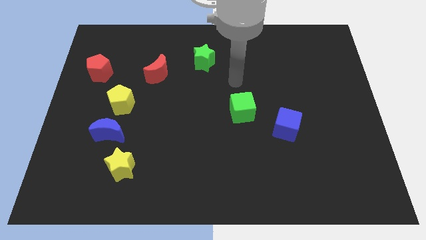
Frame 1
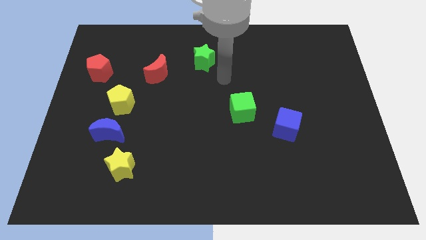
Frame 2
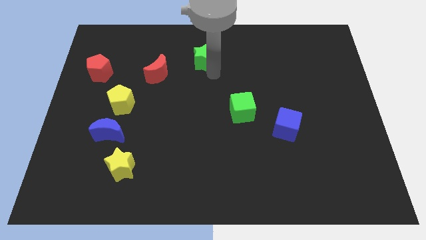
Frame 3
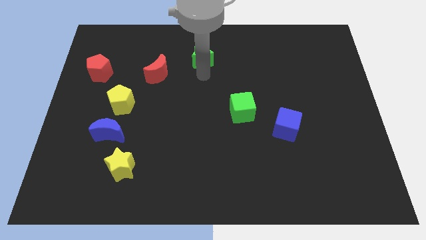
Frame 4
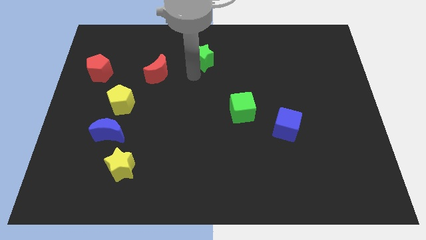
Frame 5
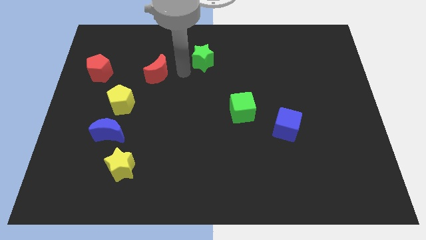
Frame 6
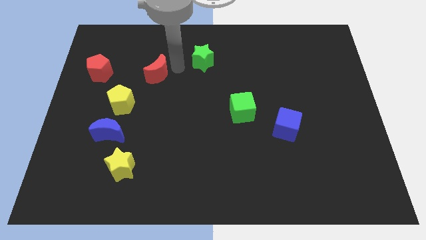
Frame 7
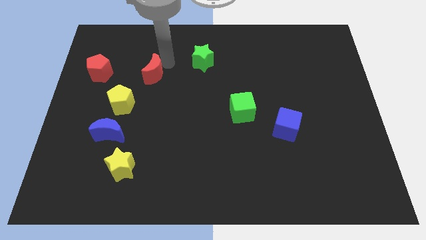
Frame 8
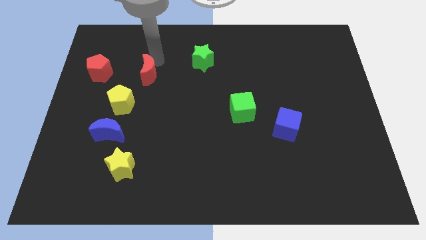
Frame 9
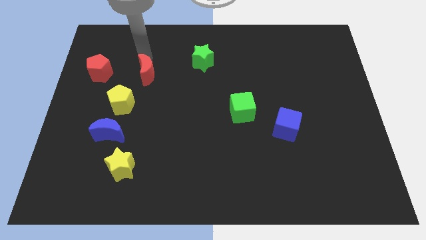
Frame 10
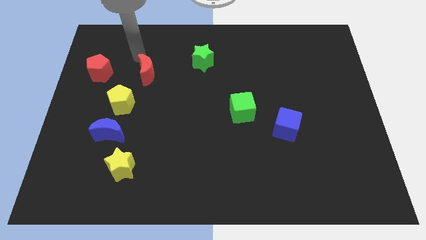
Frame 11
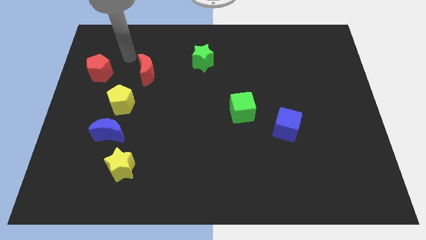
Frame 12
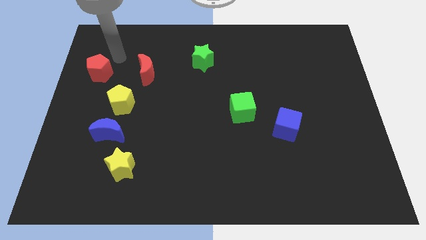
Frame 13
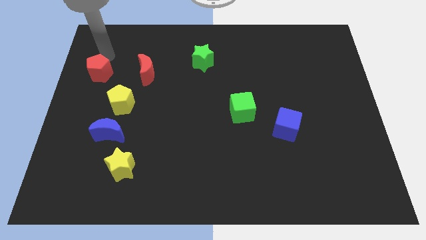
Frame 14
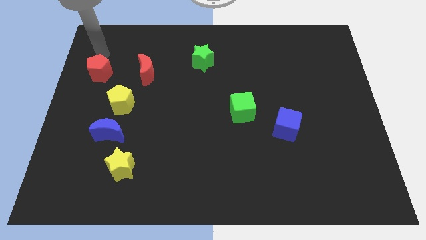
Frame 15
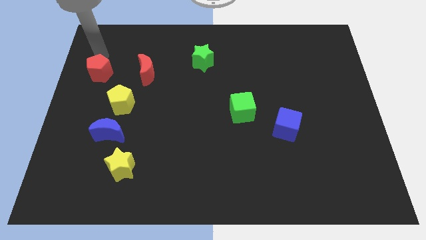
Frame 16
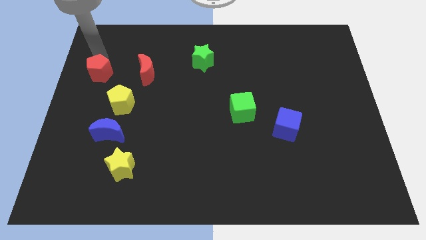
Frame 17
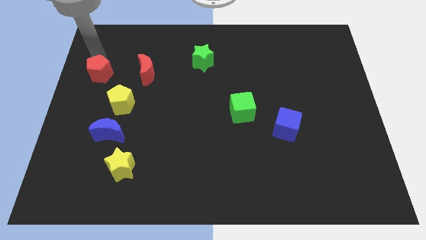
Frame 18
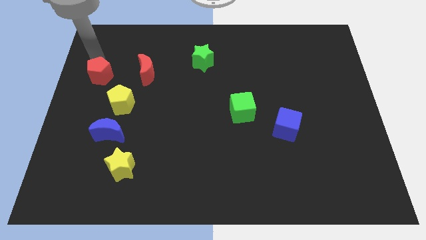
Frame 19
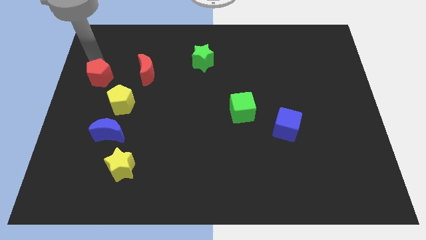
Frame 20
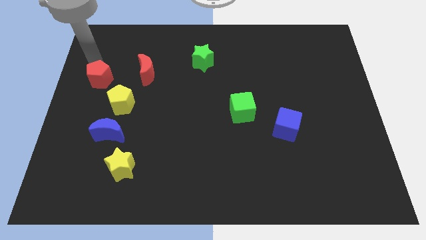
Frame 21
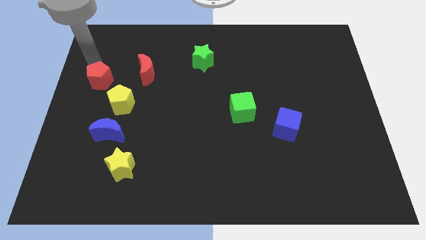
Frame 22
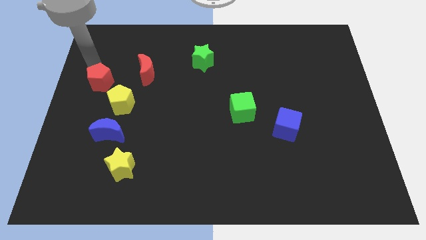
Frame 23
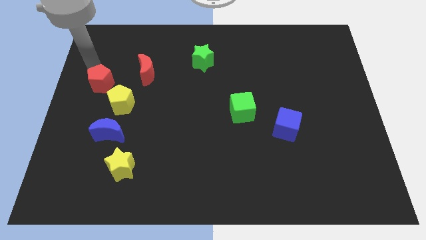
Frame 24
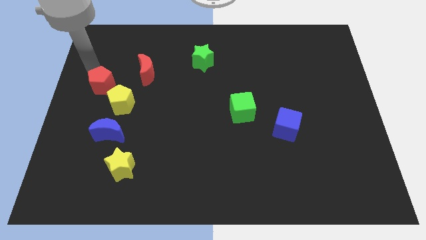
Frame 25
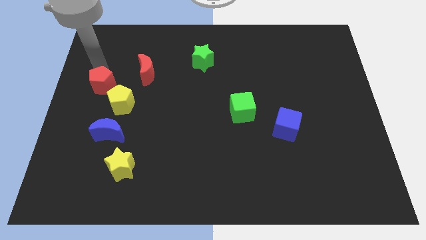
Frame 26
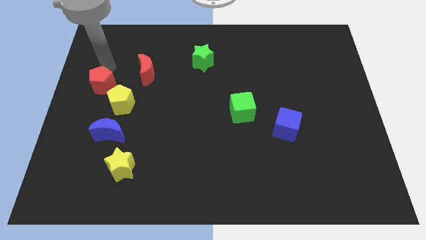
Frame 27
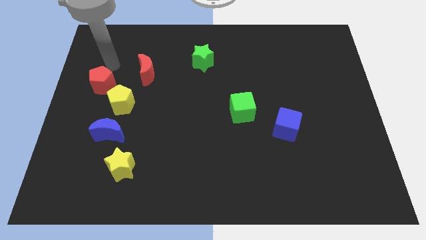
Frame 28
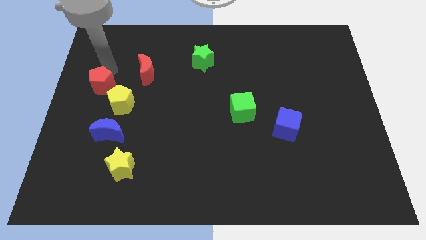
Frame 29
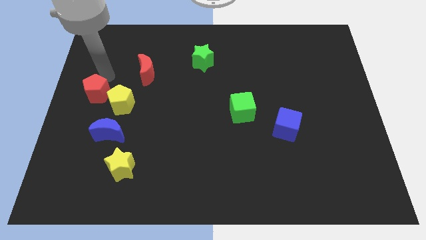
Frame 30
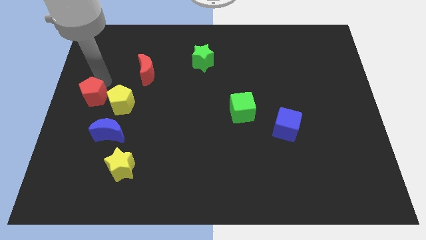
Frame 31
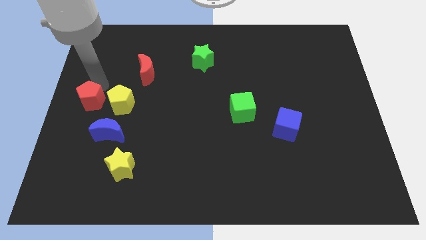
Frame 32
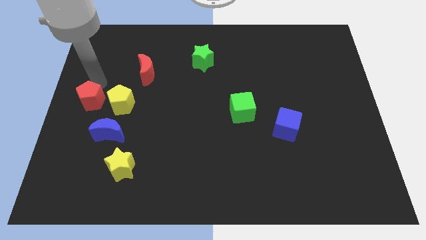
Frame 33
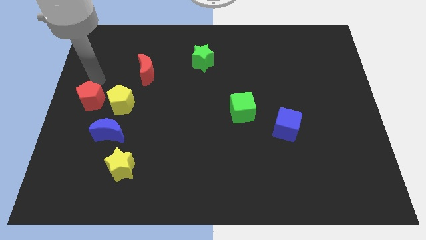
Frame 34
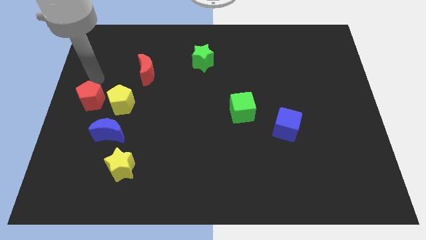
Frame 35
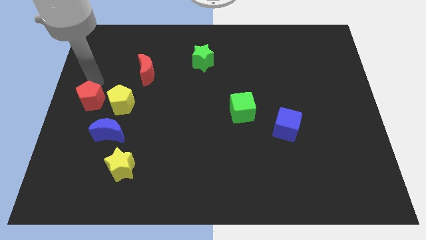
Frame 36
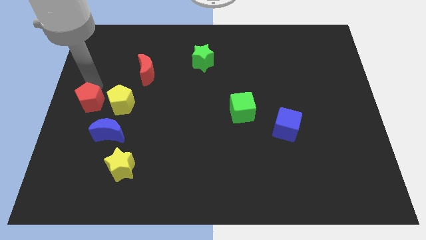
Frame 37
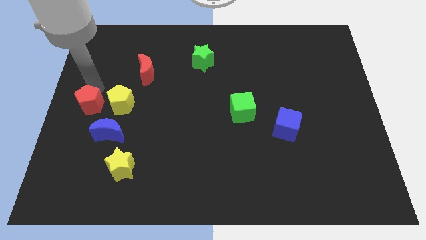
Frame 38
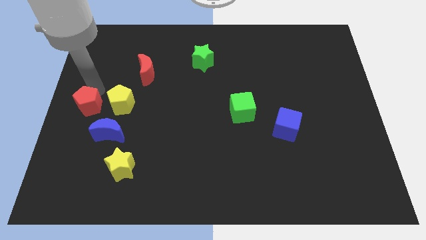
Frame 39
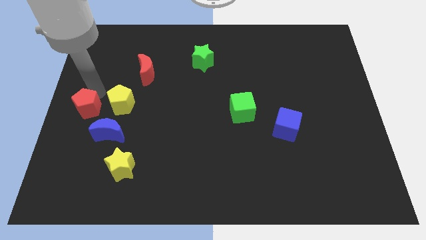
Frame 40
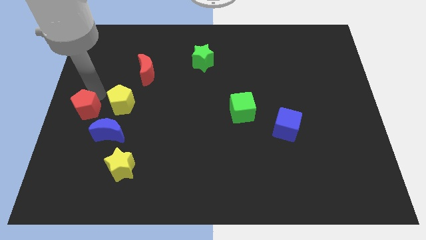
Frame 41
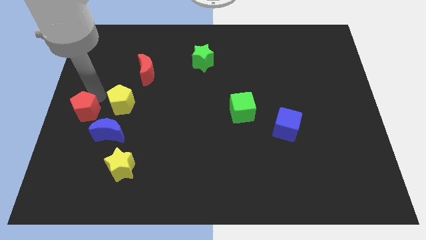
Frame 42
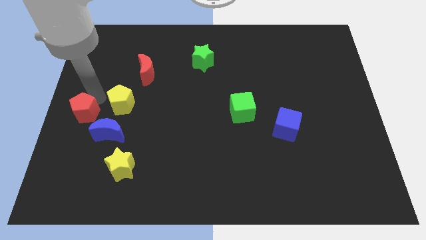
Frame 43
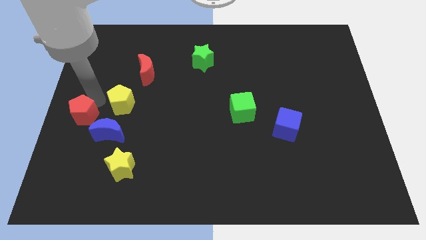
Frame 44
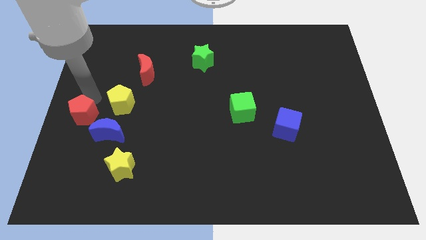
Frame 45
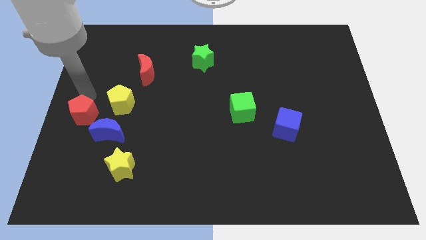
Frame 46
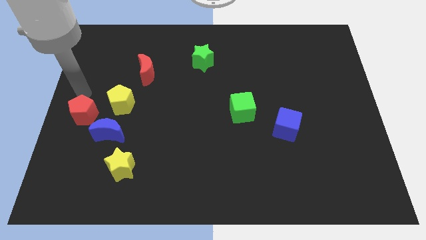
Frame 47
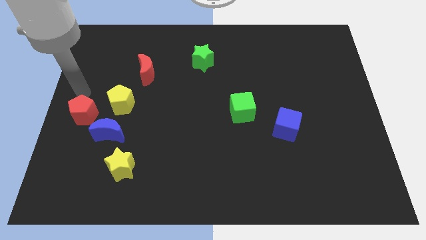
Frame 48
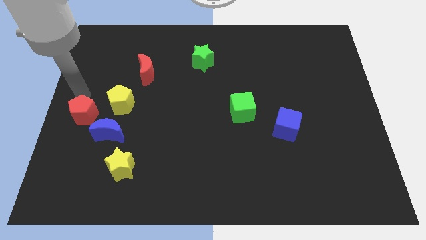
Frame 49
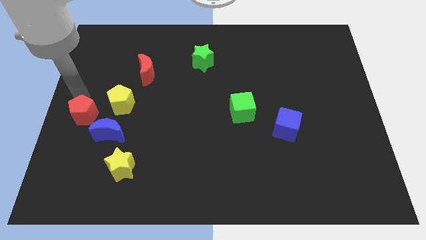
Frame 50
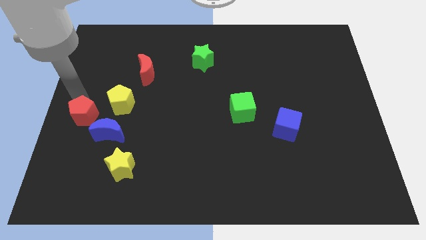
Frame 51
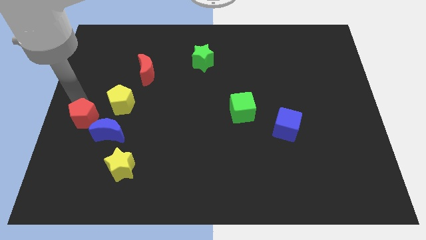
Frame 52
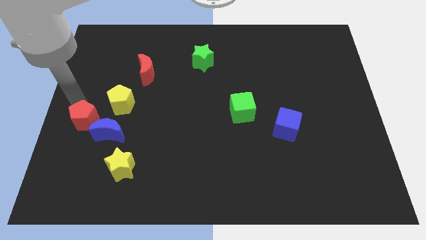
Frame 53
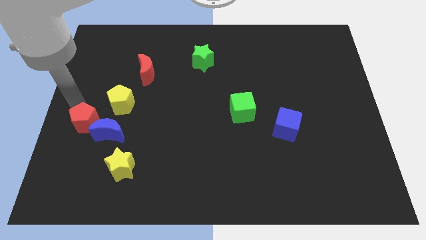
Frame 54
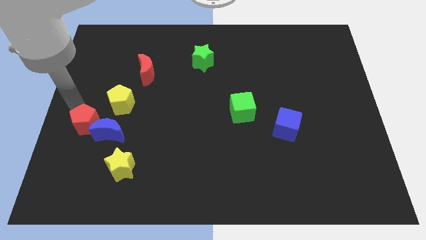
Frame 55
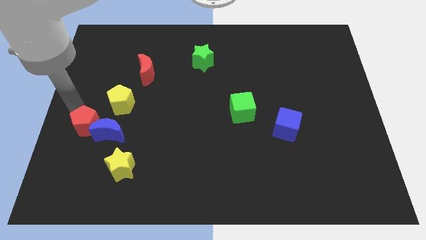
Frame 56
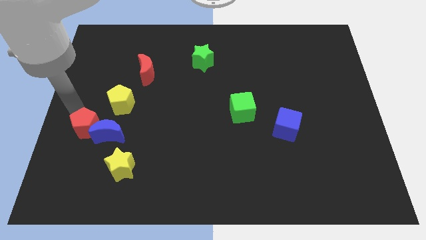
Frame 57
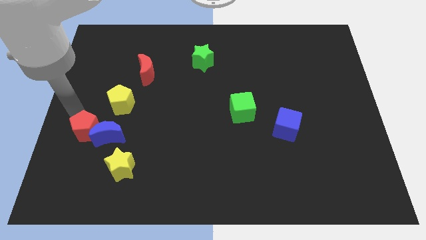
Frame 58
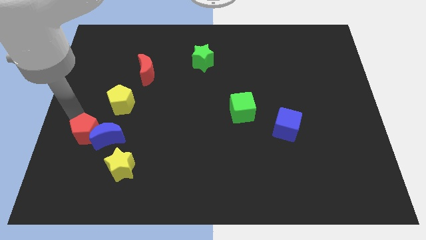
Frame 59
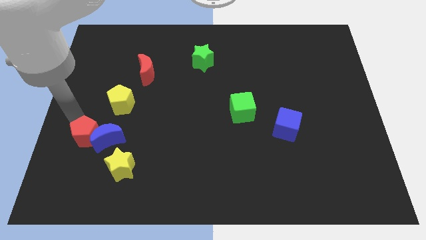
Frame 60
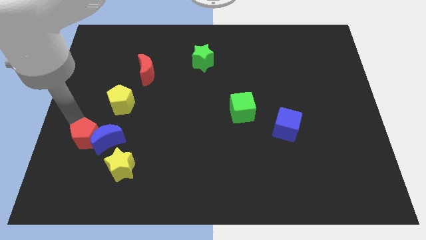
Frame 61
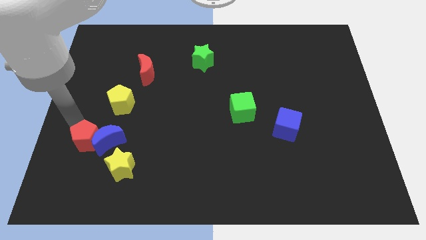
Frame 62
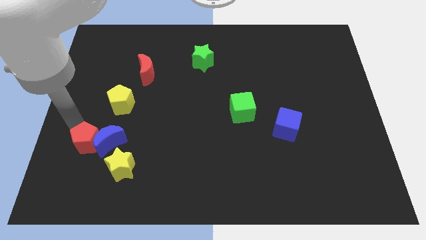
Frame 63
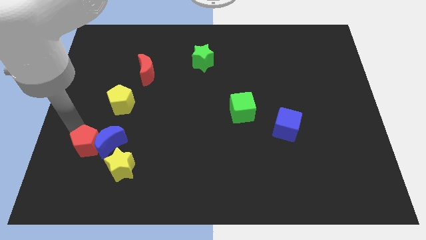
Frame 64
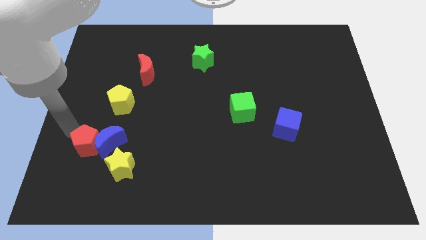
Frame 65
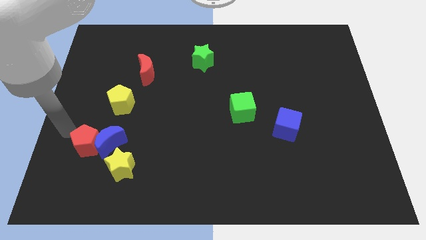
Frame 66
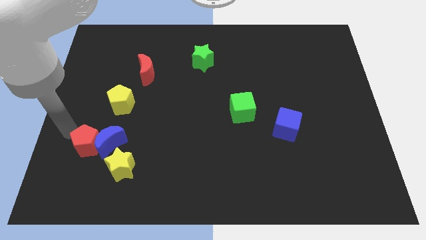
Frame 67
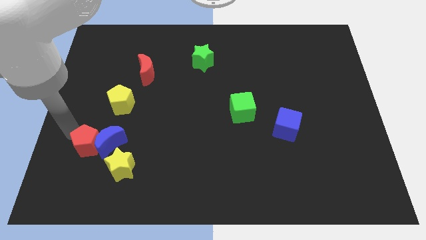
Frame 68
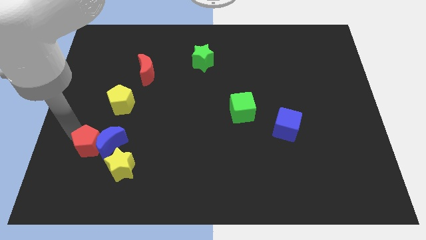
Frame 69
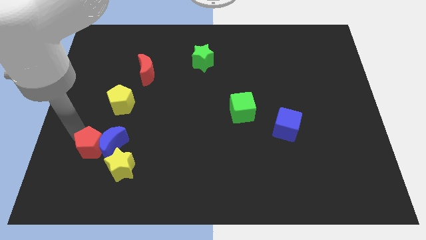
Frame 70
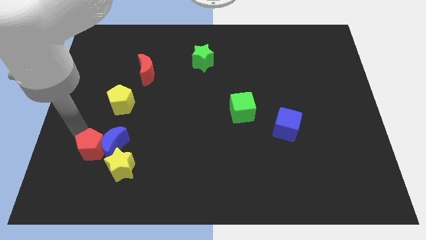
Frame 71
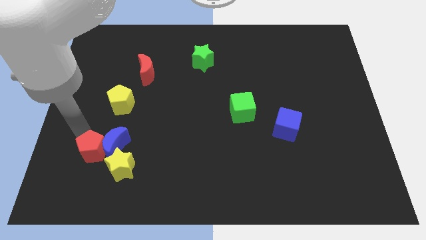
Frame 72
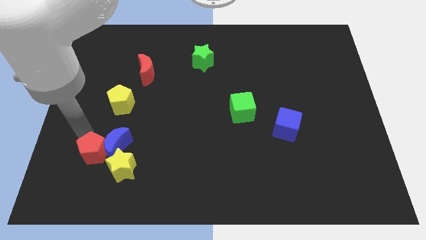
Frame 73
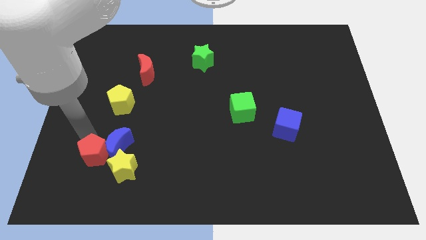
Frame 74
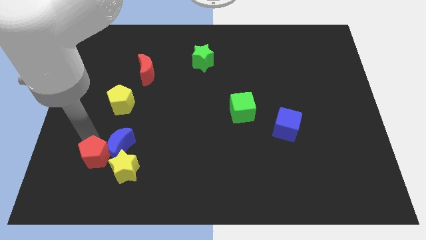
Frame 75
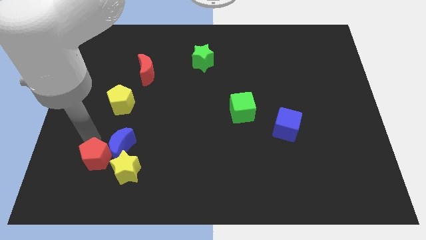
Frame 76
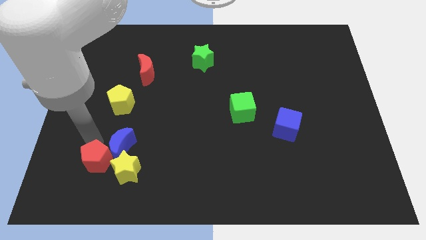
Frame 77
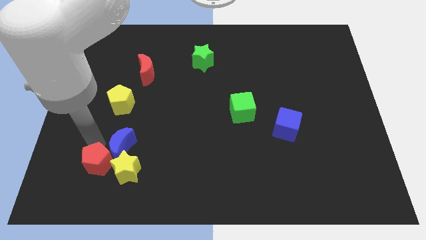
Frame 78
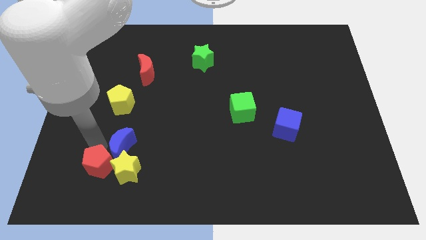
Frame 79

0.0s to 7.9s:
put the red pentagon towards the yellow star
